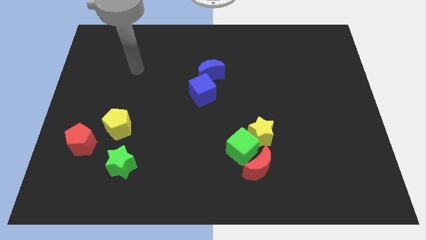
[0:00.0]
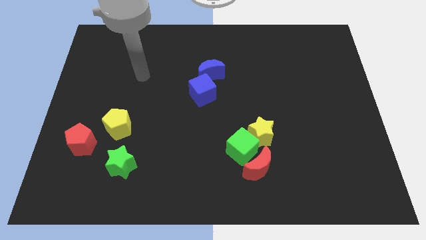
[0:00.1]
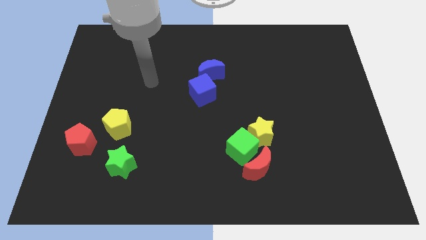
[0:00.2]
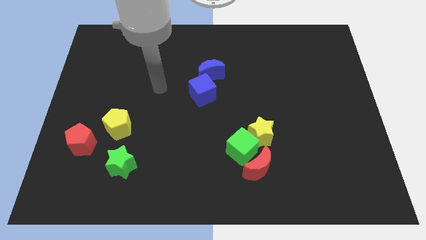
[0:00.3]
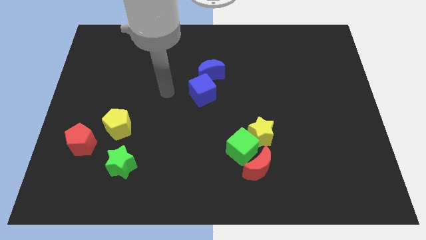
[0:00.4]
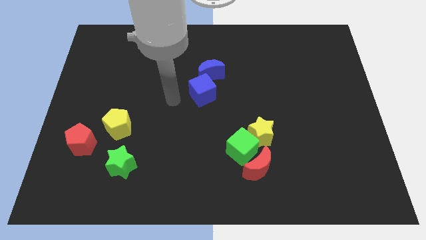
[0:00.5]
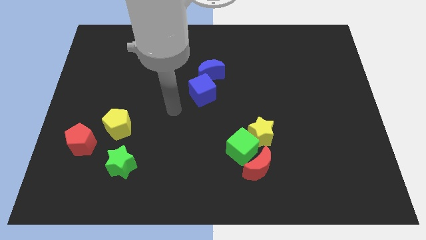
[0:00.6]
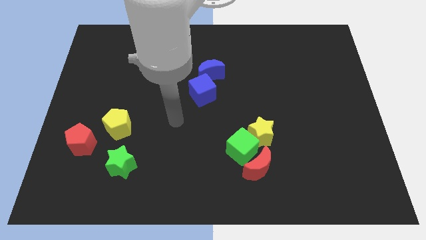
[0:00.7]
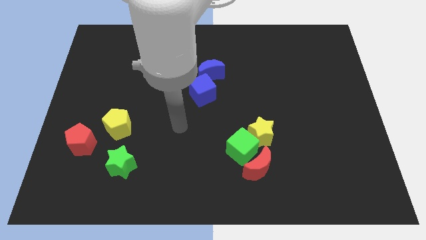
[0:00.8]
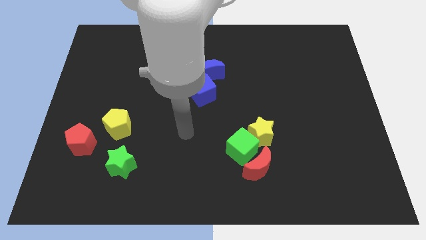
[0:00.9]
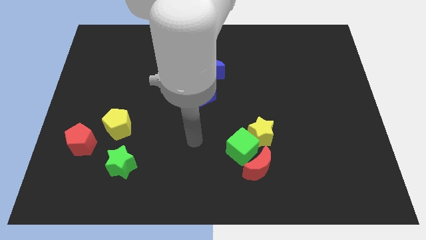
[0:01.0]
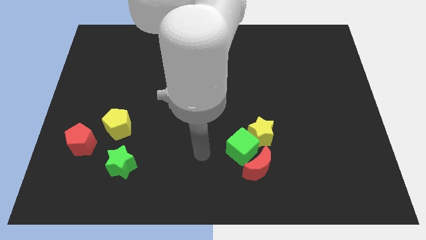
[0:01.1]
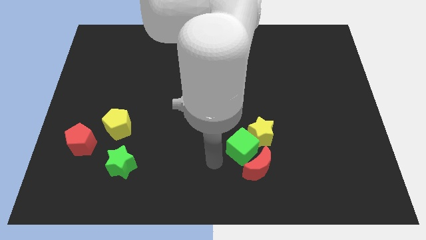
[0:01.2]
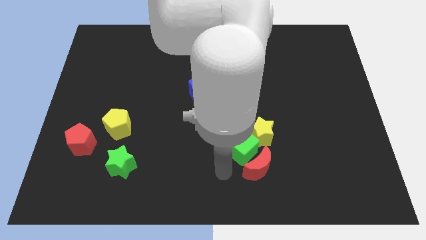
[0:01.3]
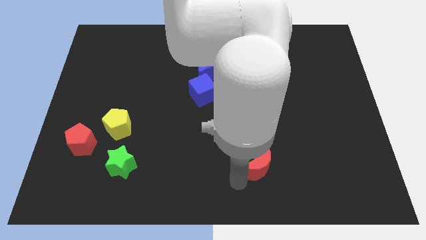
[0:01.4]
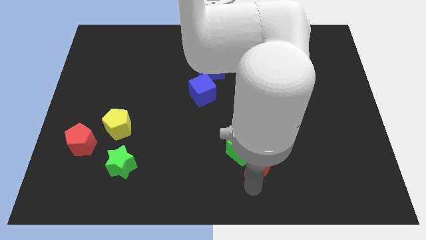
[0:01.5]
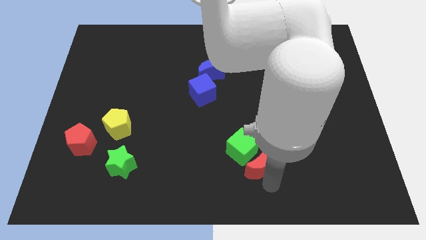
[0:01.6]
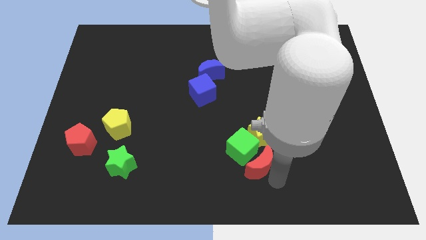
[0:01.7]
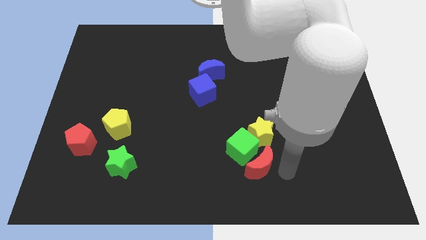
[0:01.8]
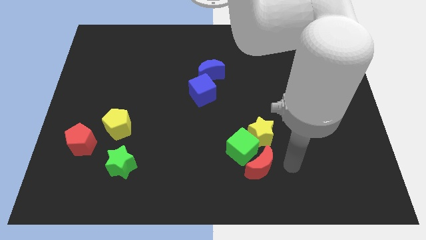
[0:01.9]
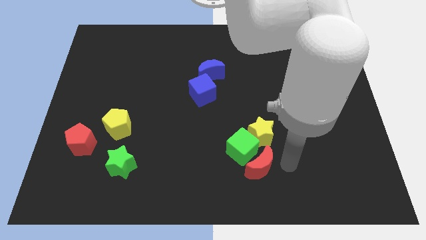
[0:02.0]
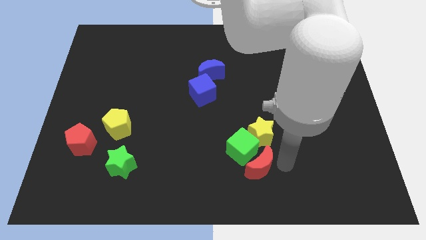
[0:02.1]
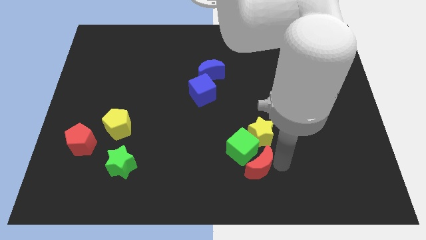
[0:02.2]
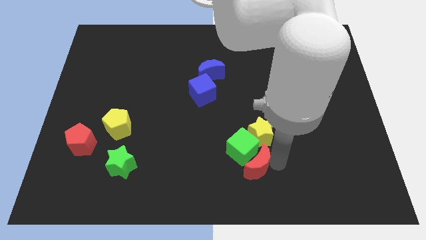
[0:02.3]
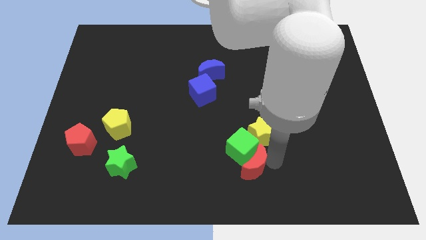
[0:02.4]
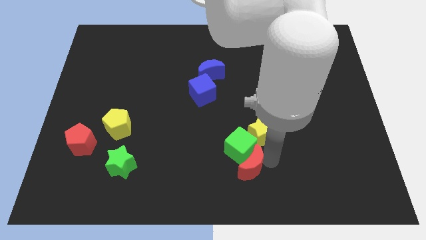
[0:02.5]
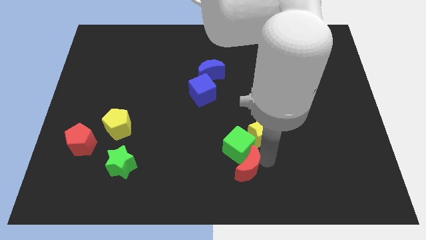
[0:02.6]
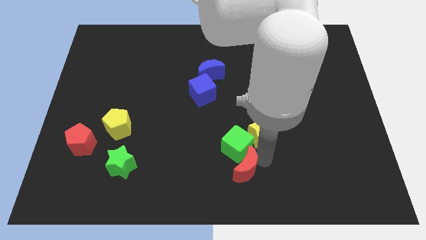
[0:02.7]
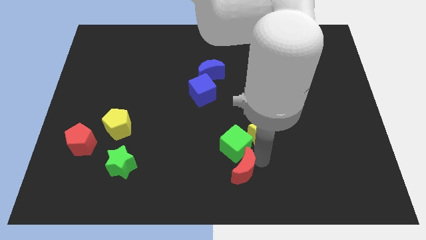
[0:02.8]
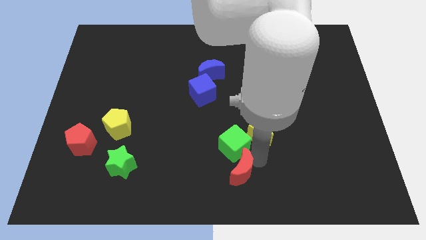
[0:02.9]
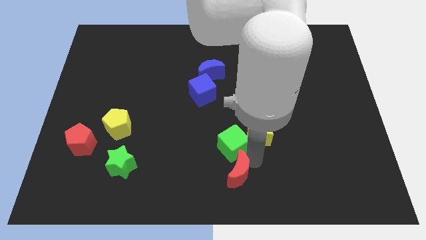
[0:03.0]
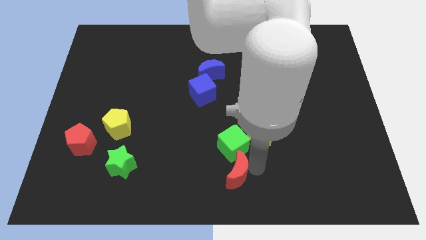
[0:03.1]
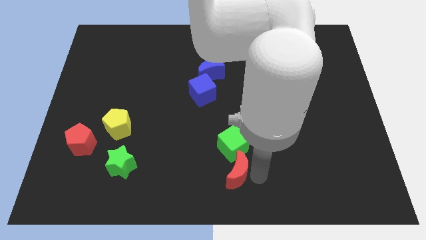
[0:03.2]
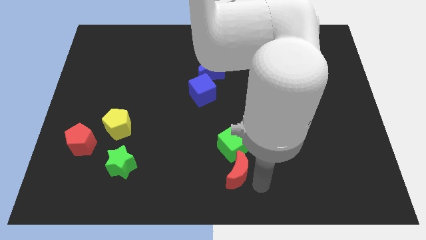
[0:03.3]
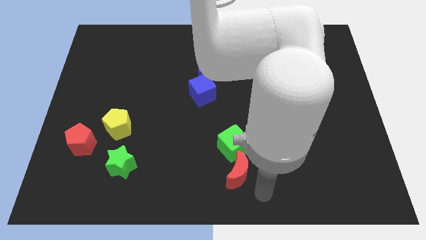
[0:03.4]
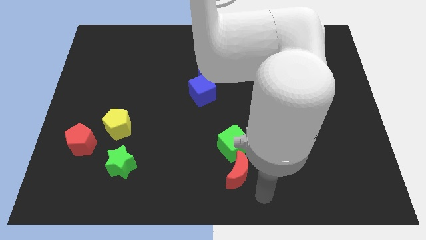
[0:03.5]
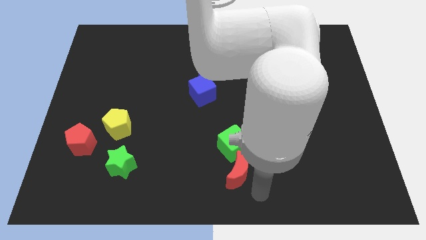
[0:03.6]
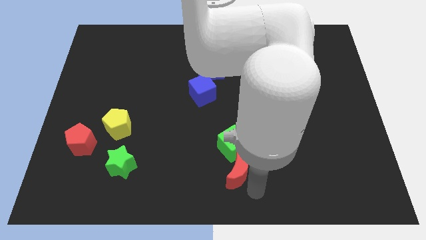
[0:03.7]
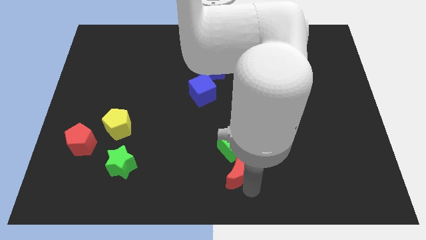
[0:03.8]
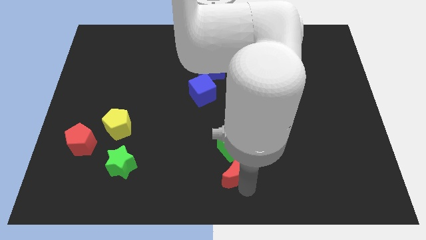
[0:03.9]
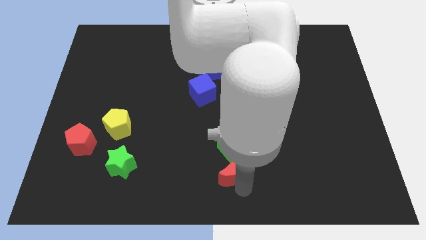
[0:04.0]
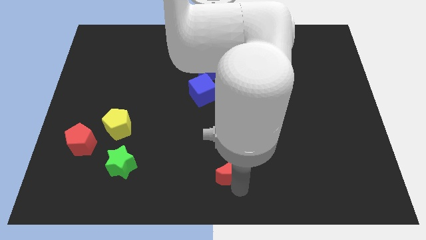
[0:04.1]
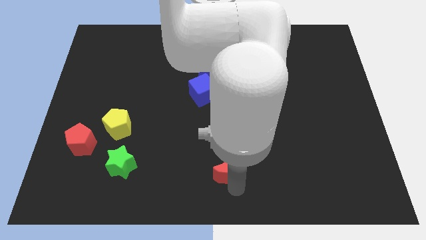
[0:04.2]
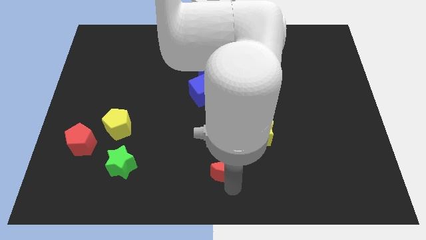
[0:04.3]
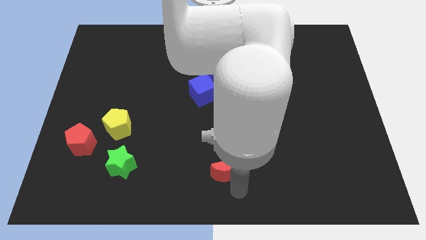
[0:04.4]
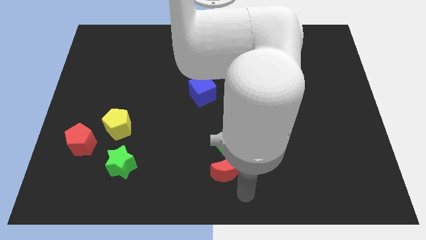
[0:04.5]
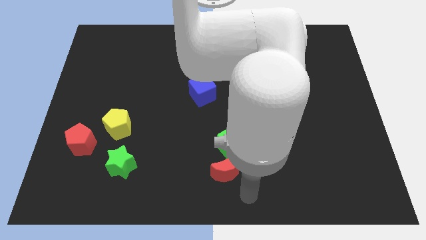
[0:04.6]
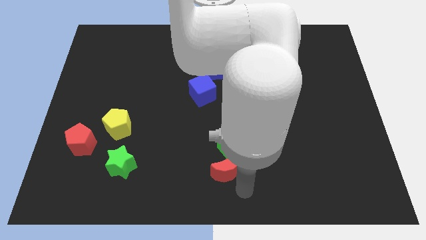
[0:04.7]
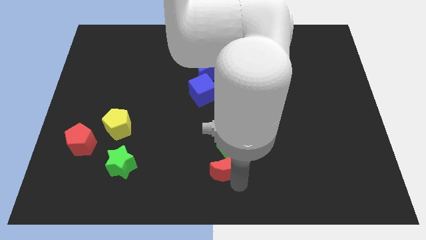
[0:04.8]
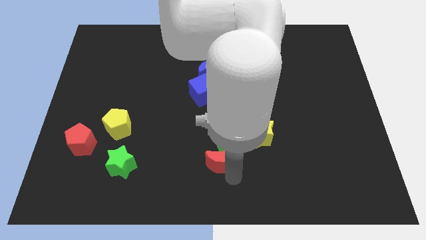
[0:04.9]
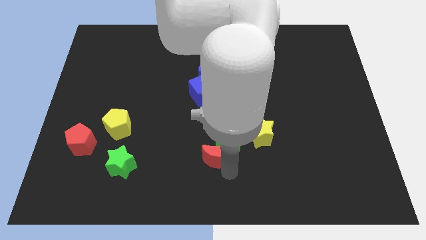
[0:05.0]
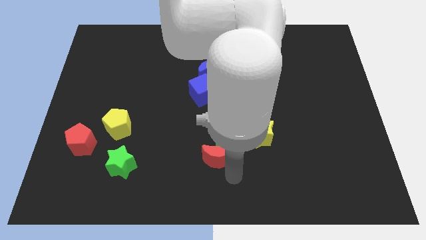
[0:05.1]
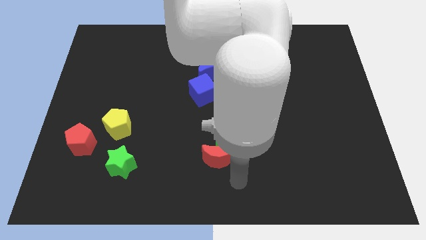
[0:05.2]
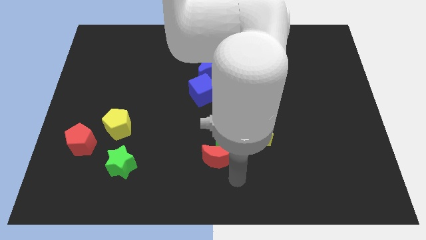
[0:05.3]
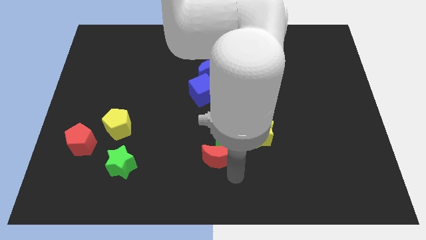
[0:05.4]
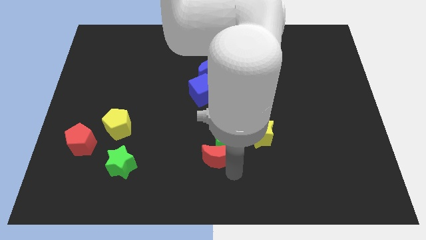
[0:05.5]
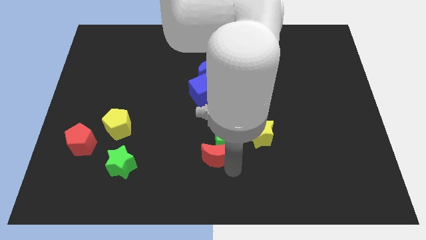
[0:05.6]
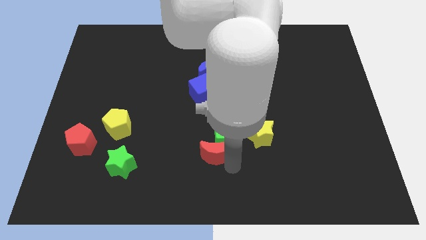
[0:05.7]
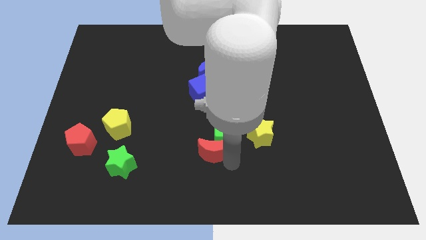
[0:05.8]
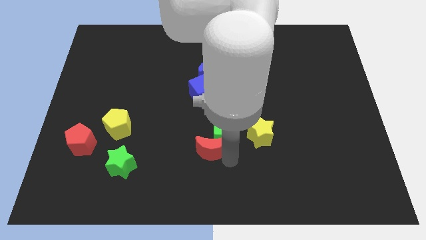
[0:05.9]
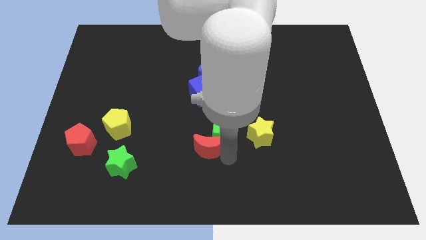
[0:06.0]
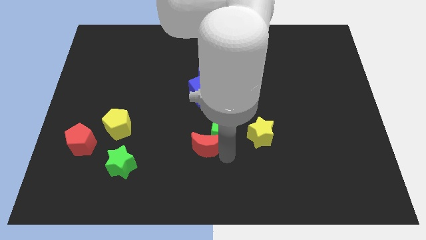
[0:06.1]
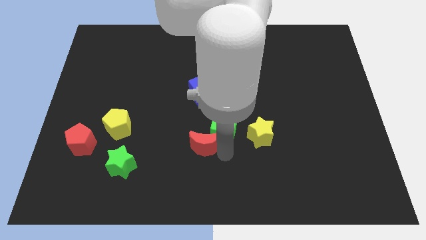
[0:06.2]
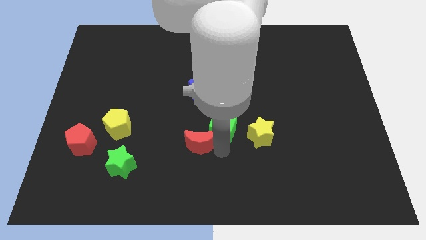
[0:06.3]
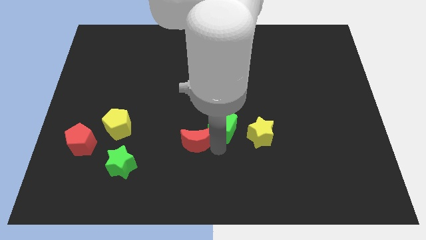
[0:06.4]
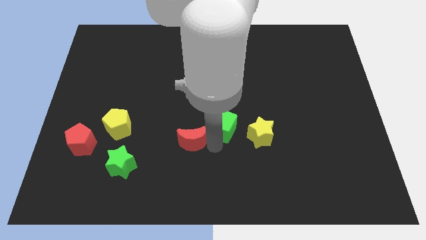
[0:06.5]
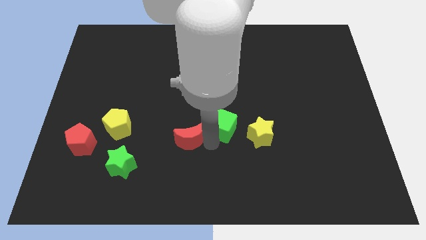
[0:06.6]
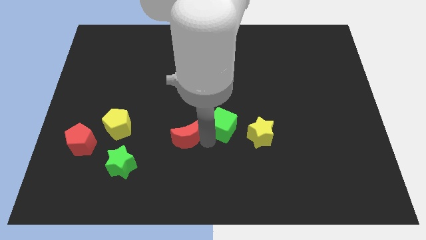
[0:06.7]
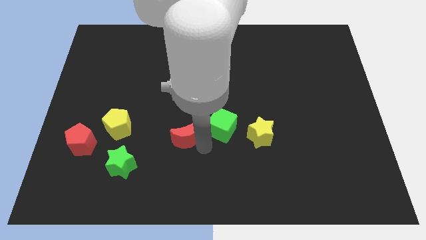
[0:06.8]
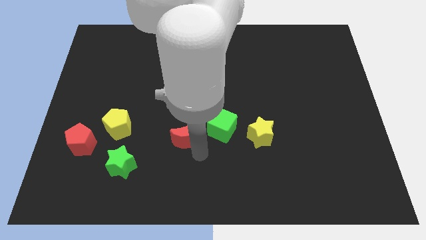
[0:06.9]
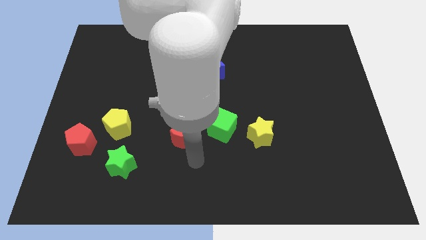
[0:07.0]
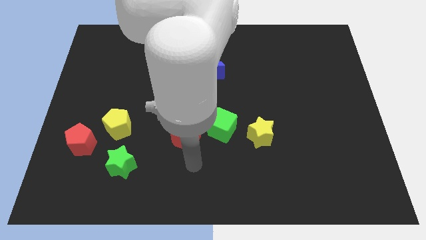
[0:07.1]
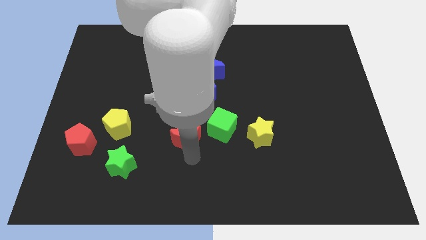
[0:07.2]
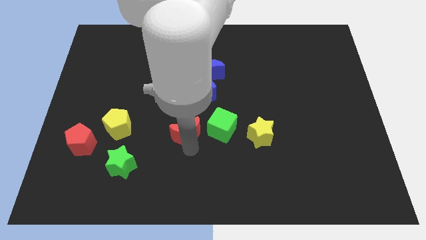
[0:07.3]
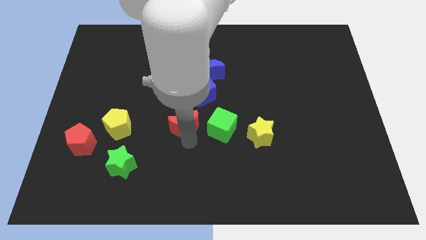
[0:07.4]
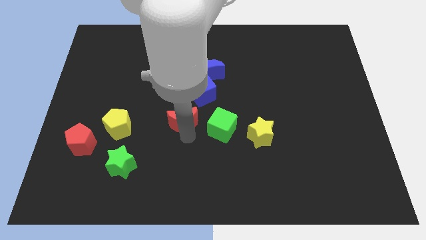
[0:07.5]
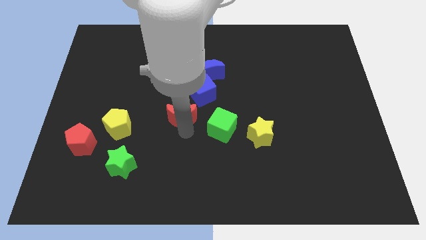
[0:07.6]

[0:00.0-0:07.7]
push the red moon up and left diagonally
